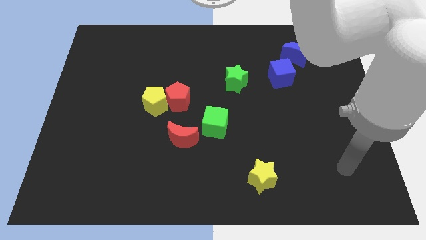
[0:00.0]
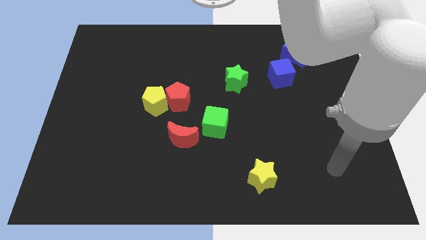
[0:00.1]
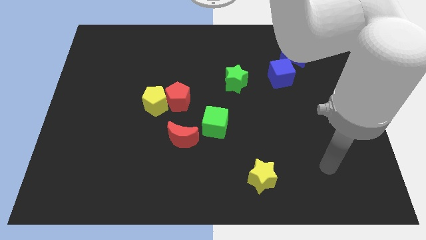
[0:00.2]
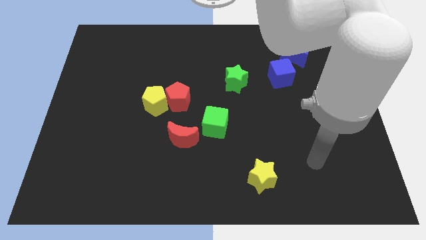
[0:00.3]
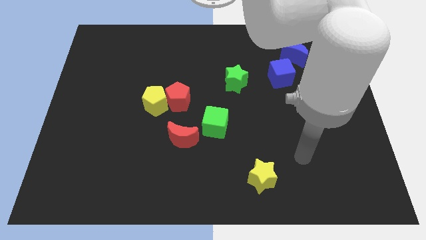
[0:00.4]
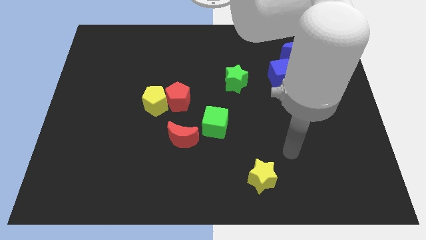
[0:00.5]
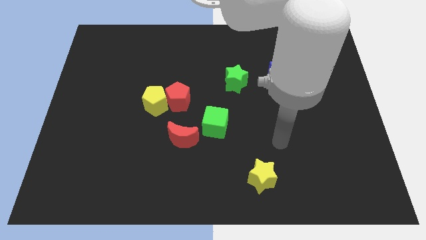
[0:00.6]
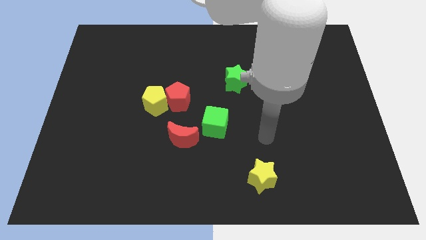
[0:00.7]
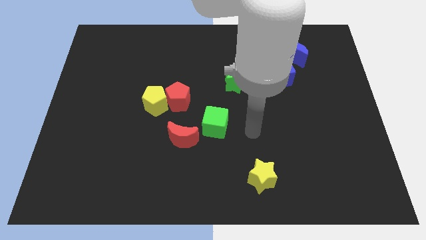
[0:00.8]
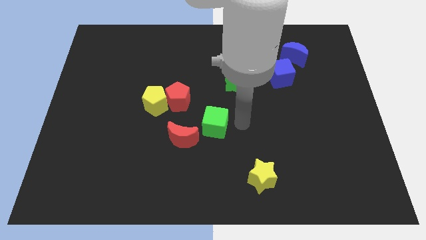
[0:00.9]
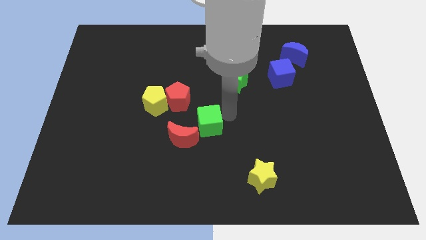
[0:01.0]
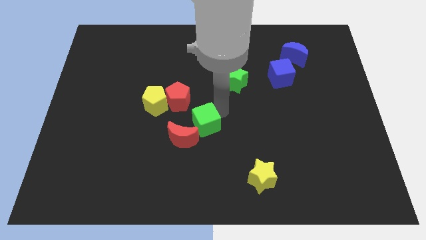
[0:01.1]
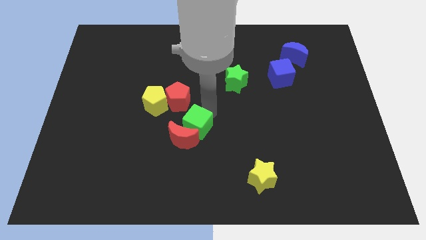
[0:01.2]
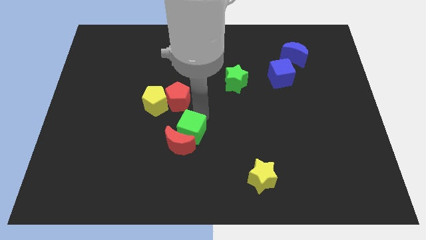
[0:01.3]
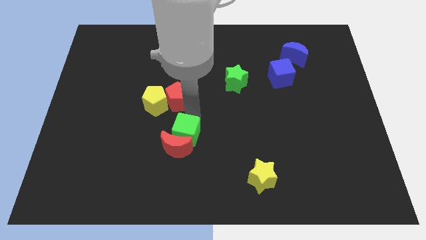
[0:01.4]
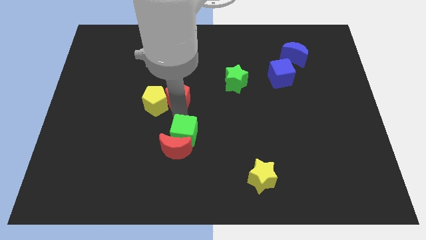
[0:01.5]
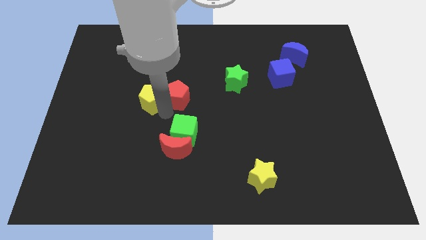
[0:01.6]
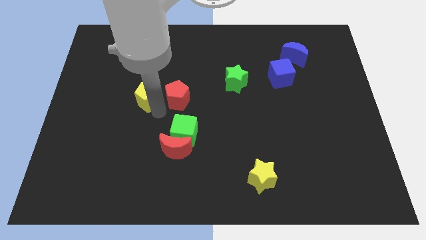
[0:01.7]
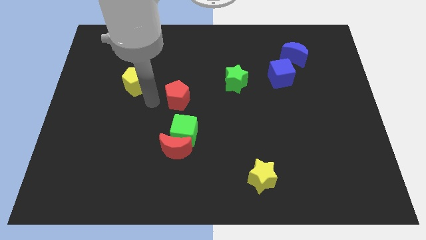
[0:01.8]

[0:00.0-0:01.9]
pull the red pentagon apart from the yellow pentagon

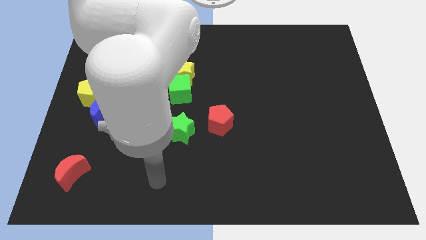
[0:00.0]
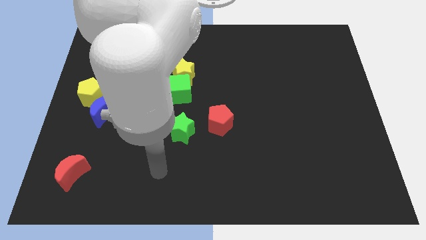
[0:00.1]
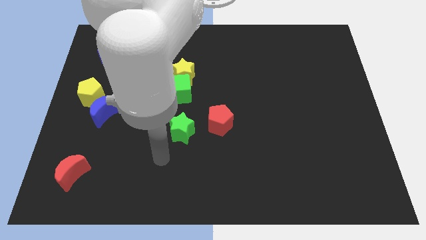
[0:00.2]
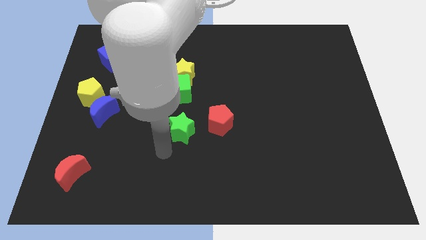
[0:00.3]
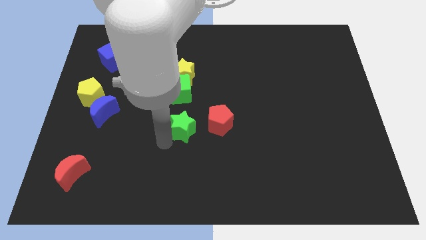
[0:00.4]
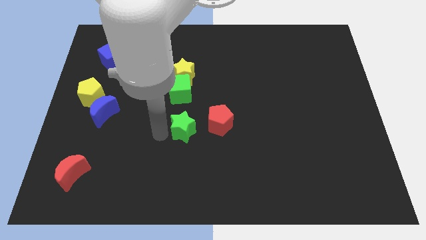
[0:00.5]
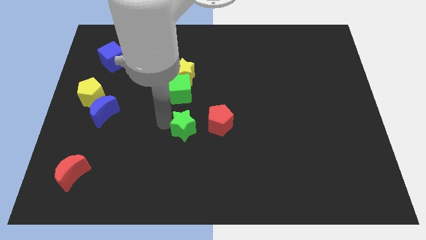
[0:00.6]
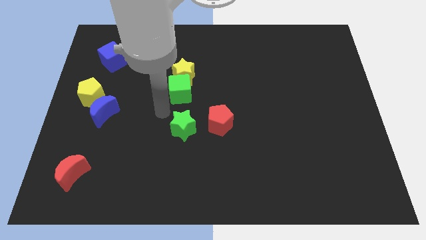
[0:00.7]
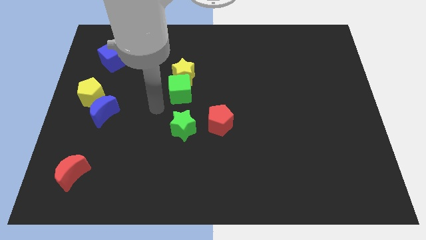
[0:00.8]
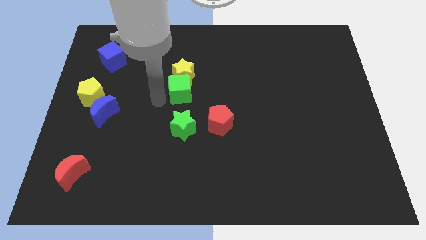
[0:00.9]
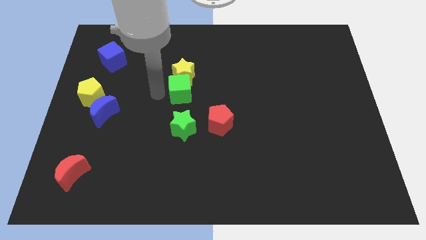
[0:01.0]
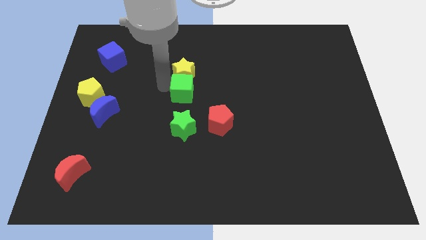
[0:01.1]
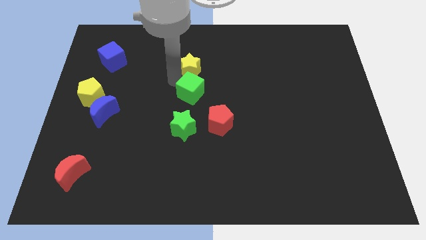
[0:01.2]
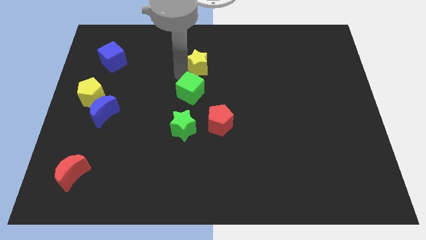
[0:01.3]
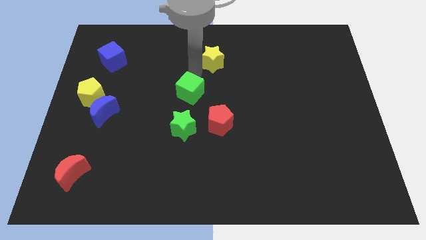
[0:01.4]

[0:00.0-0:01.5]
pull the green cube apart from the yellow star

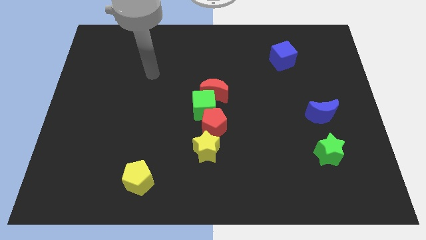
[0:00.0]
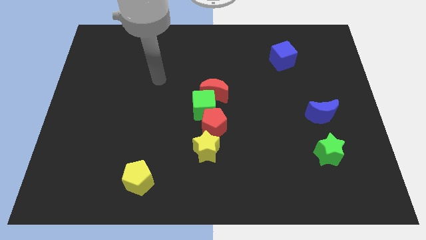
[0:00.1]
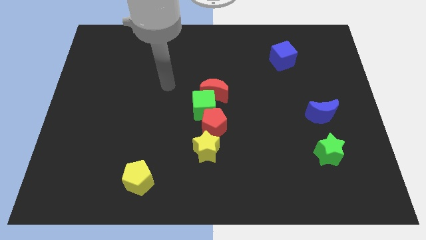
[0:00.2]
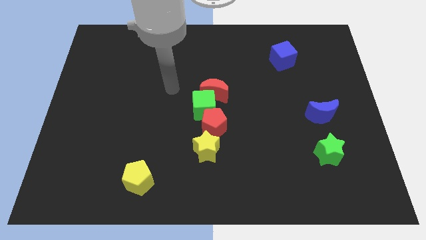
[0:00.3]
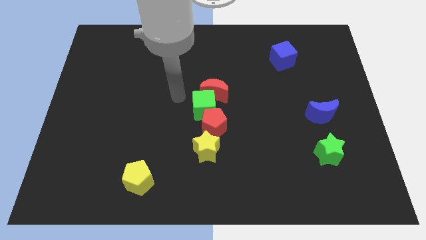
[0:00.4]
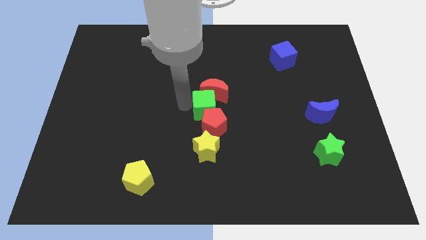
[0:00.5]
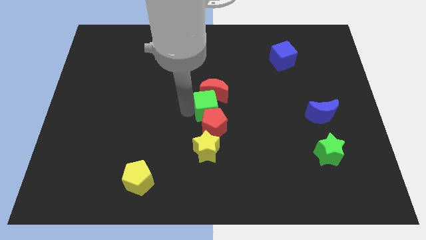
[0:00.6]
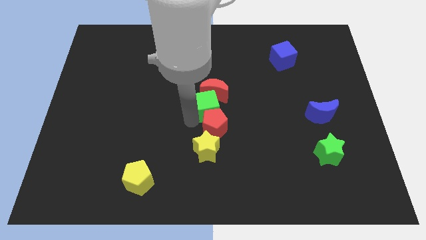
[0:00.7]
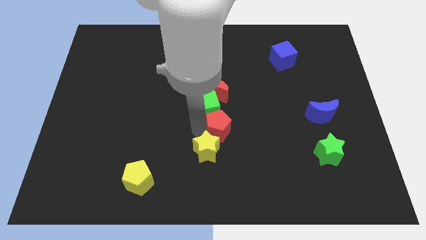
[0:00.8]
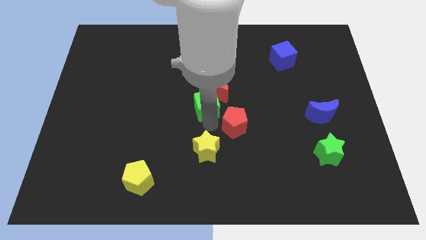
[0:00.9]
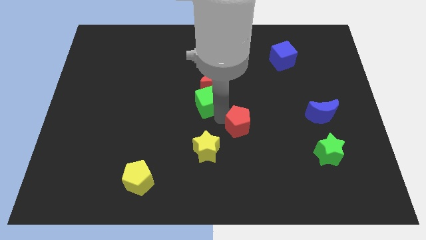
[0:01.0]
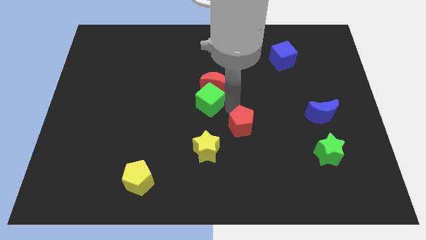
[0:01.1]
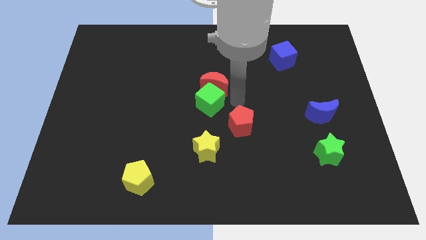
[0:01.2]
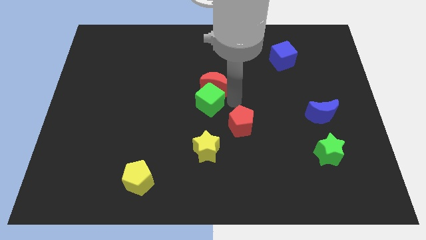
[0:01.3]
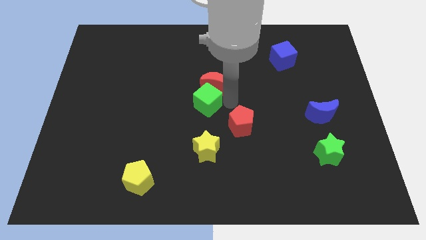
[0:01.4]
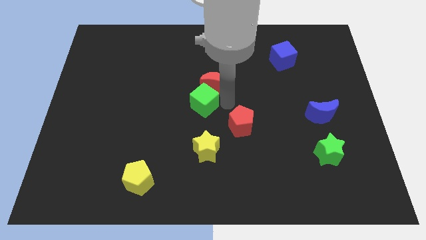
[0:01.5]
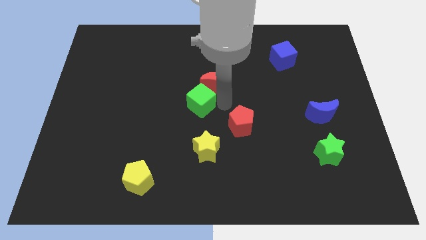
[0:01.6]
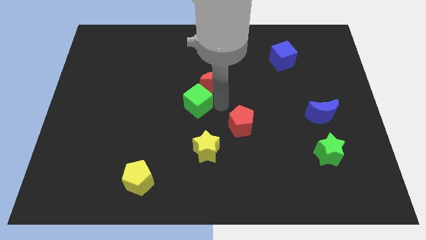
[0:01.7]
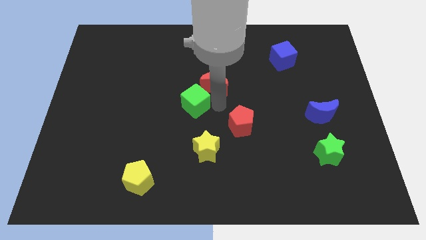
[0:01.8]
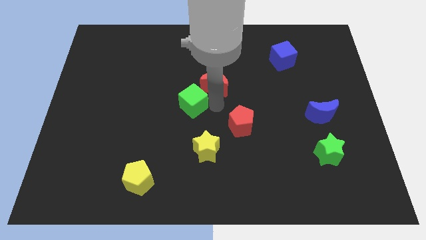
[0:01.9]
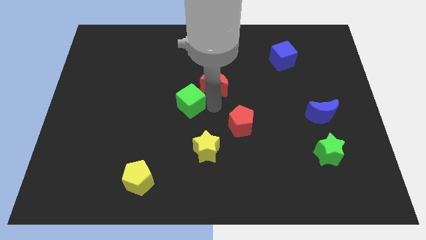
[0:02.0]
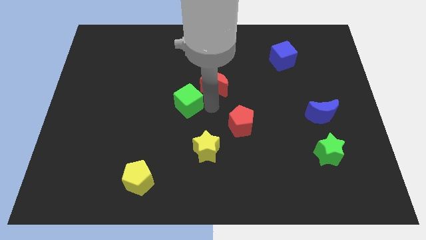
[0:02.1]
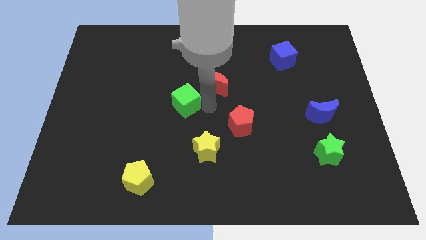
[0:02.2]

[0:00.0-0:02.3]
separate the green cube from the red moon and red pentagon

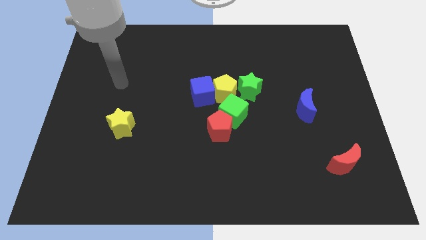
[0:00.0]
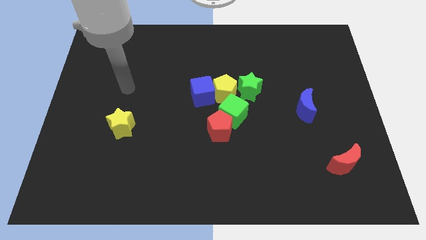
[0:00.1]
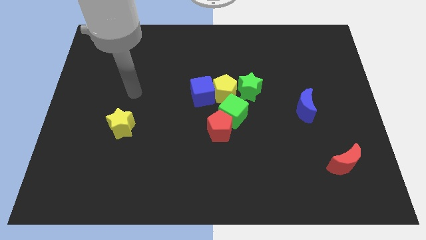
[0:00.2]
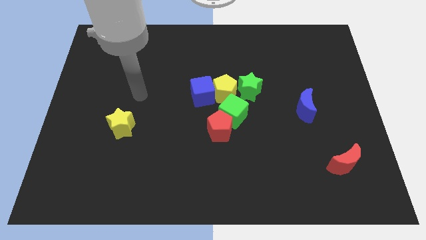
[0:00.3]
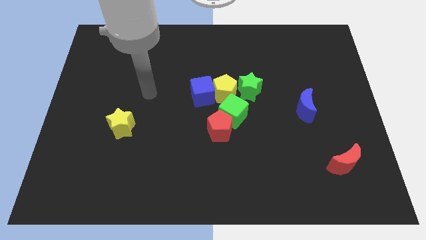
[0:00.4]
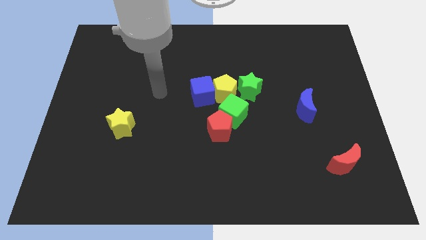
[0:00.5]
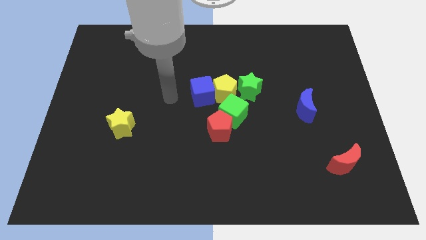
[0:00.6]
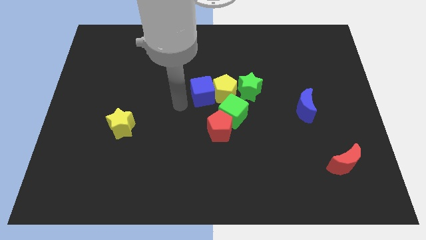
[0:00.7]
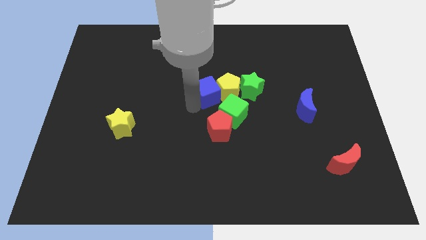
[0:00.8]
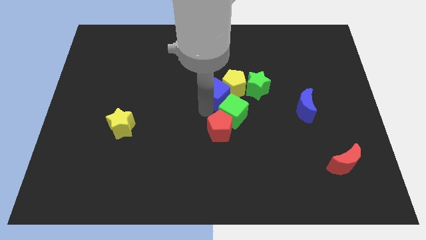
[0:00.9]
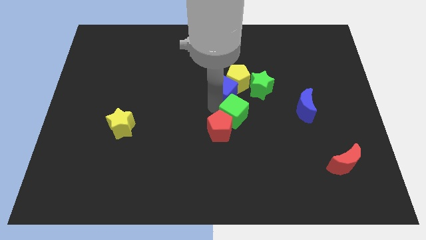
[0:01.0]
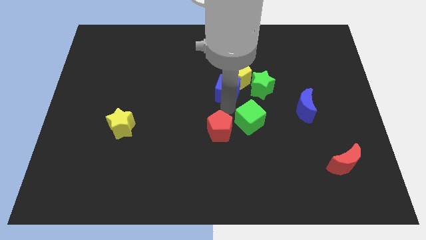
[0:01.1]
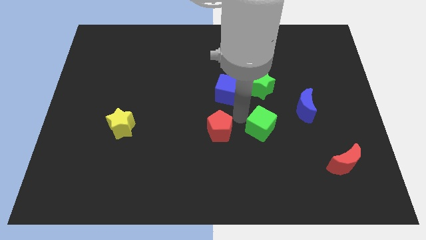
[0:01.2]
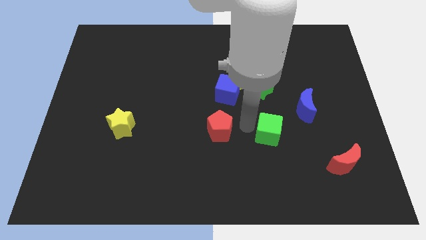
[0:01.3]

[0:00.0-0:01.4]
separate the red pentagon from the green cube

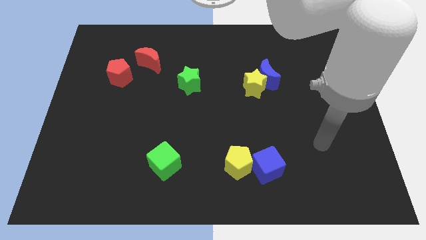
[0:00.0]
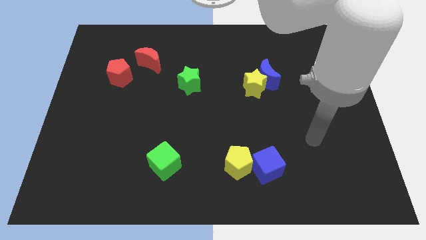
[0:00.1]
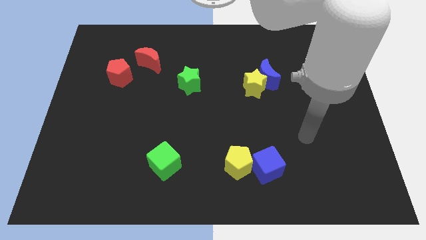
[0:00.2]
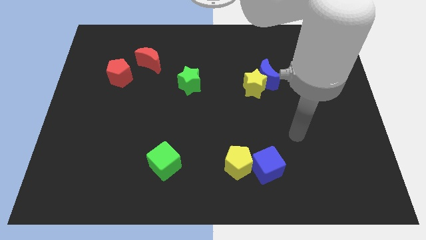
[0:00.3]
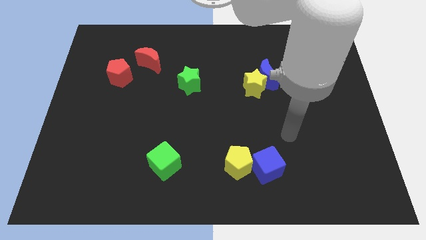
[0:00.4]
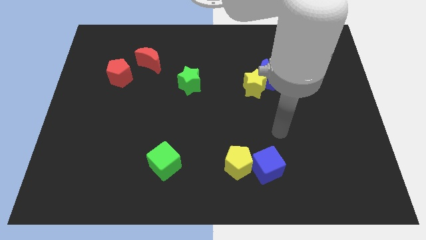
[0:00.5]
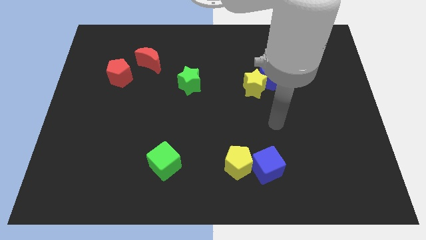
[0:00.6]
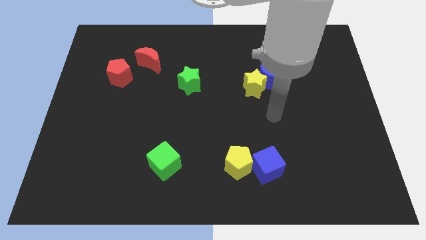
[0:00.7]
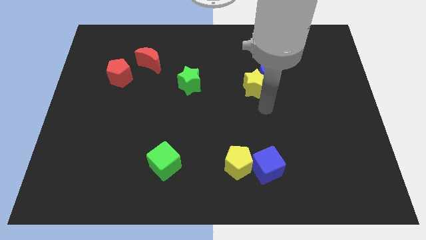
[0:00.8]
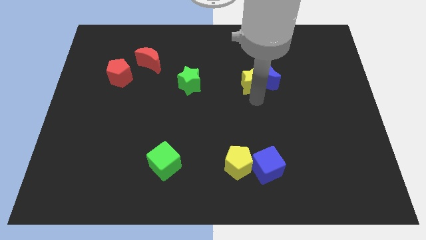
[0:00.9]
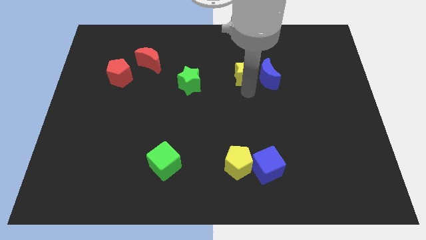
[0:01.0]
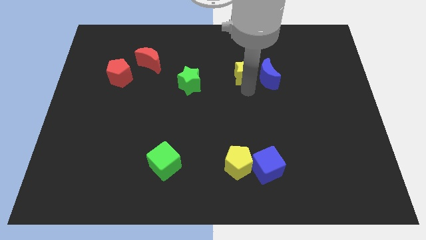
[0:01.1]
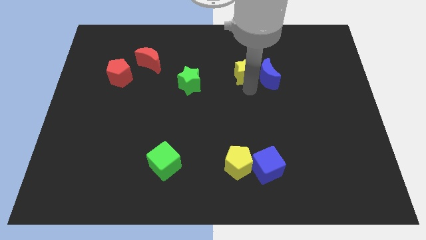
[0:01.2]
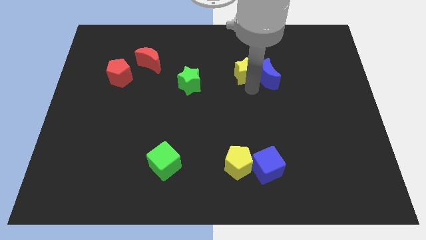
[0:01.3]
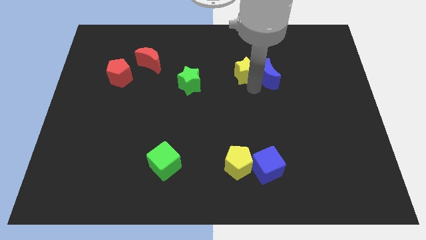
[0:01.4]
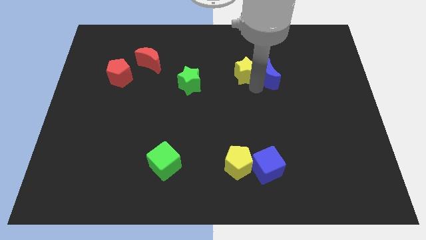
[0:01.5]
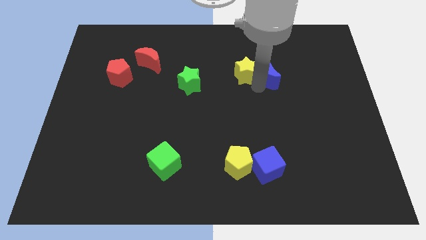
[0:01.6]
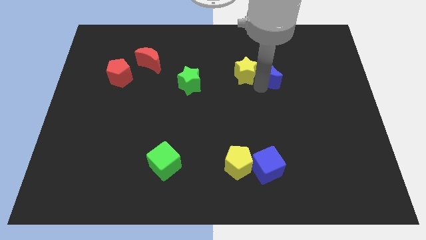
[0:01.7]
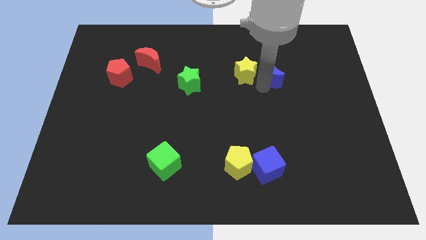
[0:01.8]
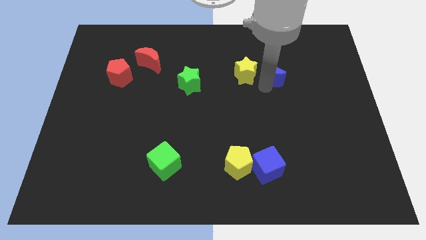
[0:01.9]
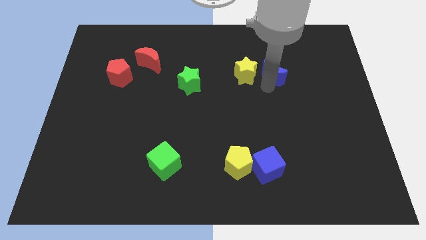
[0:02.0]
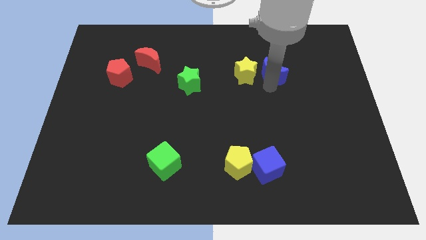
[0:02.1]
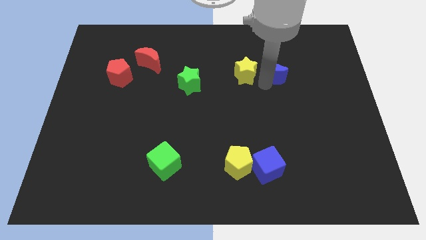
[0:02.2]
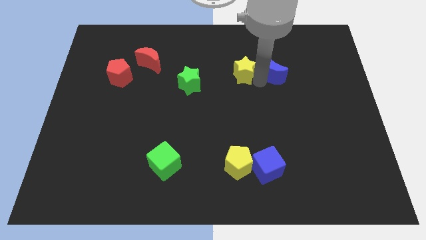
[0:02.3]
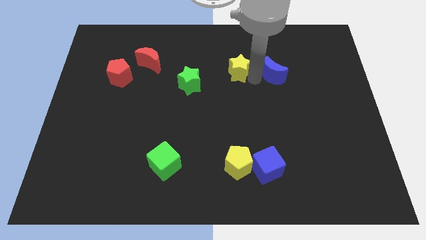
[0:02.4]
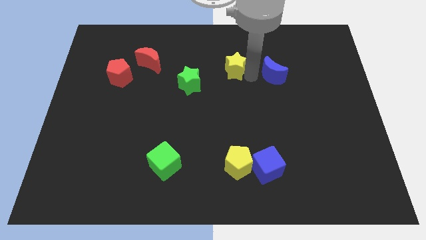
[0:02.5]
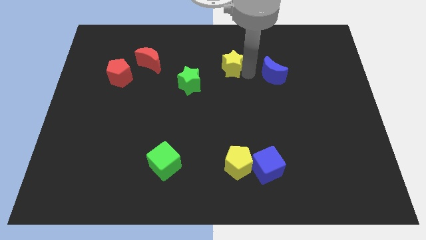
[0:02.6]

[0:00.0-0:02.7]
move the blue moon away from the yellow star
